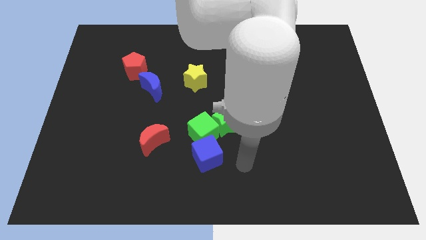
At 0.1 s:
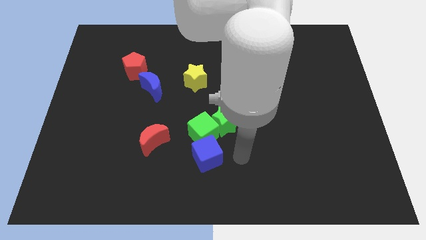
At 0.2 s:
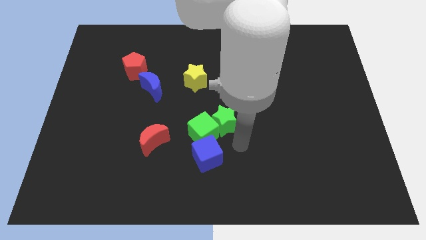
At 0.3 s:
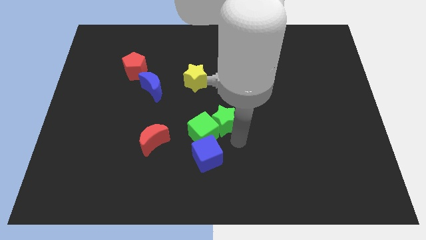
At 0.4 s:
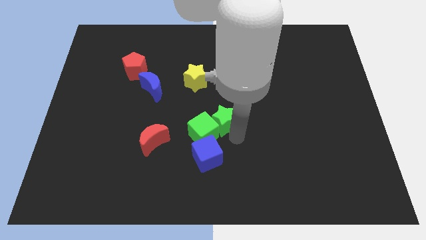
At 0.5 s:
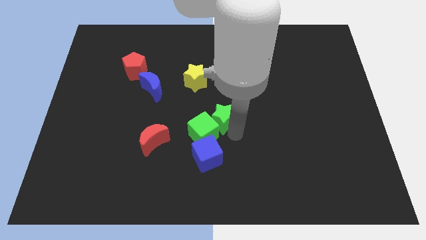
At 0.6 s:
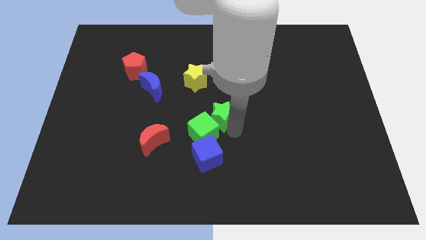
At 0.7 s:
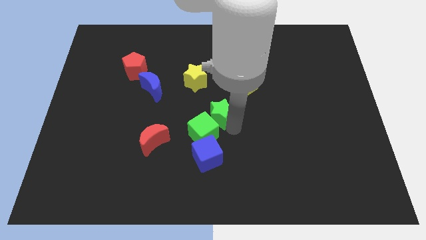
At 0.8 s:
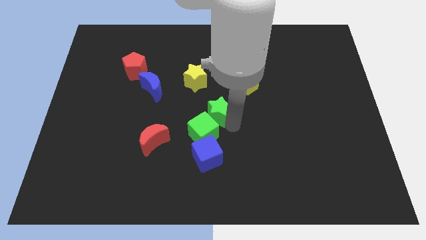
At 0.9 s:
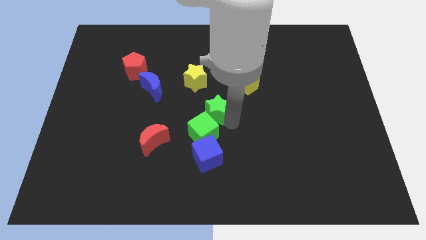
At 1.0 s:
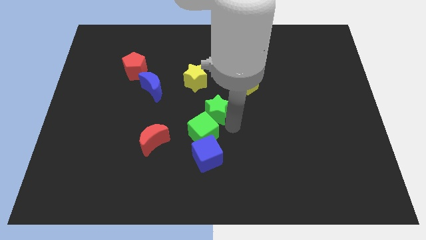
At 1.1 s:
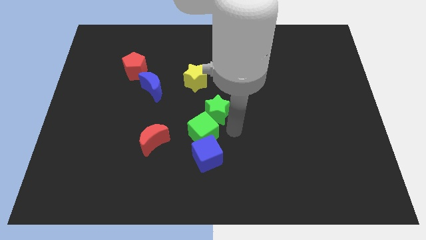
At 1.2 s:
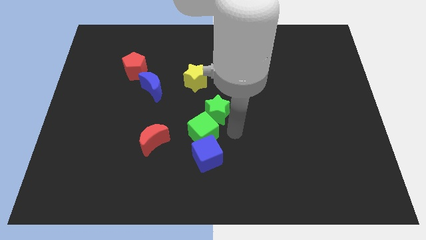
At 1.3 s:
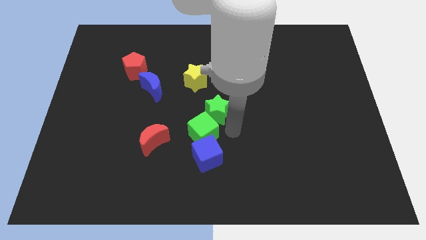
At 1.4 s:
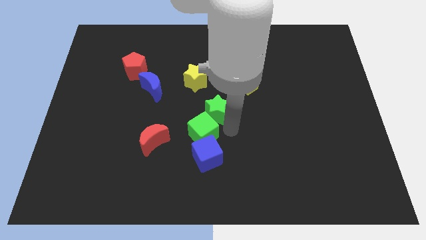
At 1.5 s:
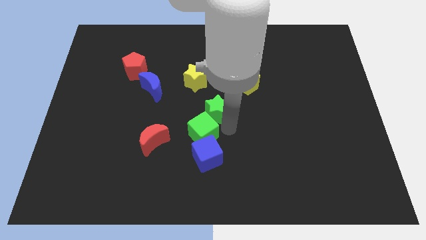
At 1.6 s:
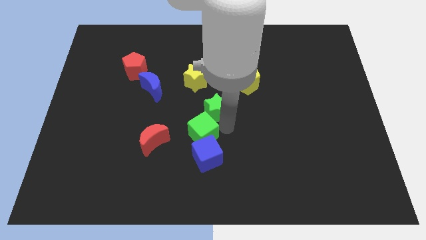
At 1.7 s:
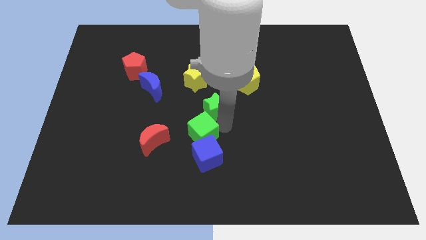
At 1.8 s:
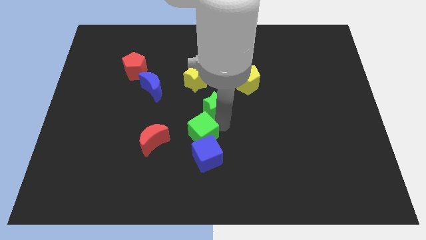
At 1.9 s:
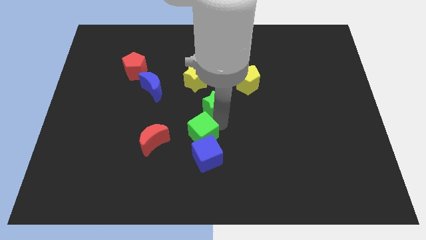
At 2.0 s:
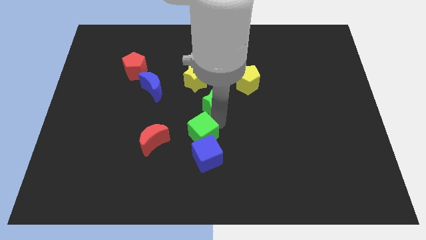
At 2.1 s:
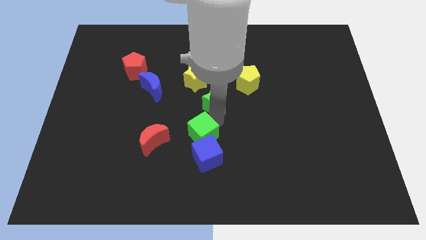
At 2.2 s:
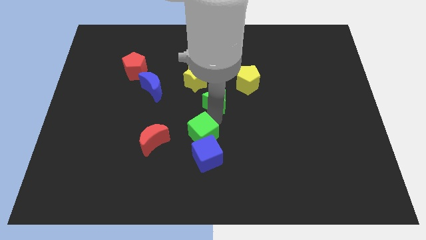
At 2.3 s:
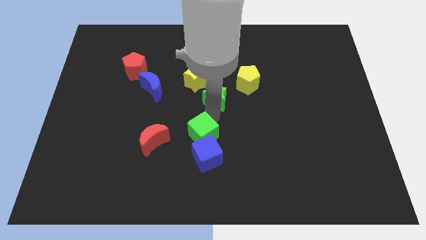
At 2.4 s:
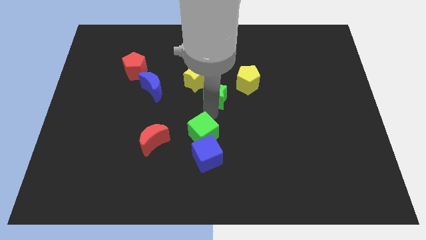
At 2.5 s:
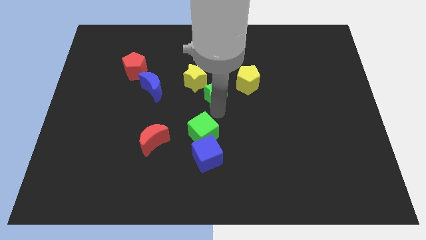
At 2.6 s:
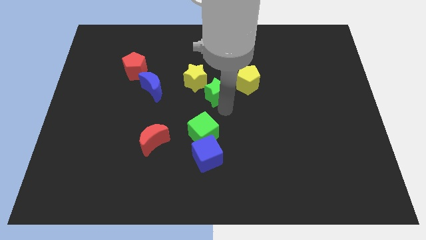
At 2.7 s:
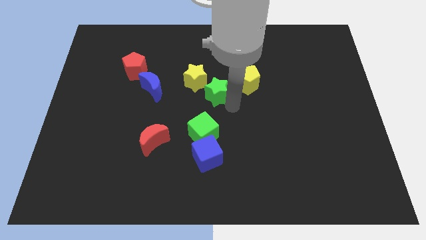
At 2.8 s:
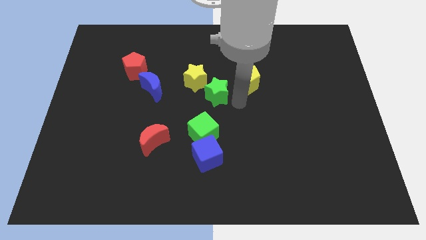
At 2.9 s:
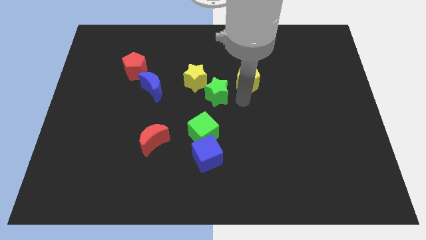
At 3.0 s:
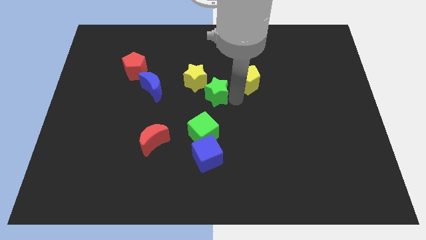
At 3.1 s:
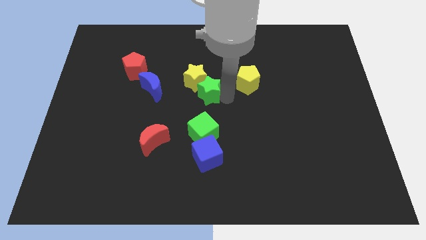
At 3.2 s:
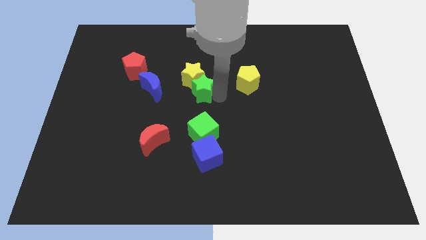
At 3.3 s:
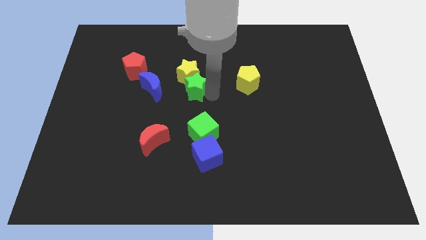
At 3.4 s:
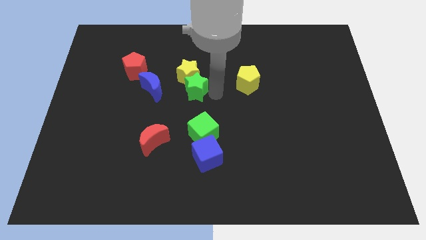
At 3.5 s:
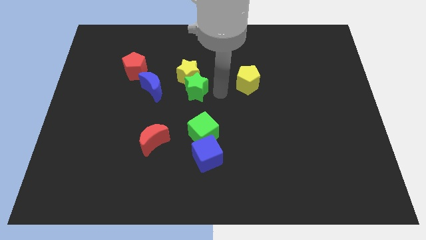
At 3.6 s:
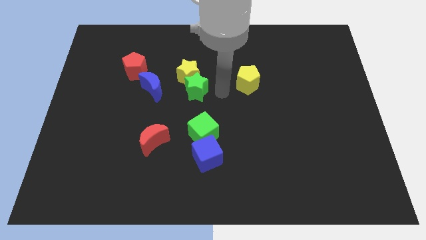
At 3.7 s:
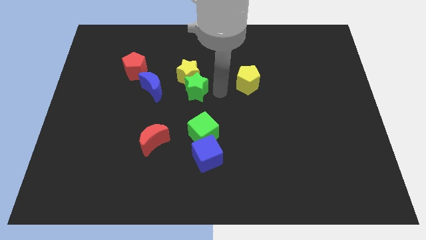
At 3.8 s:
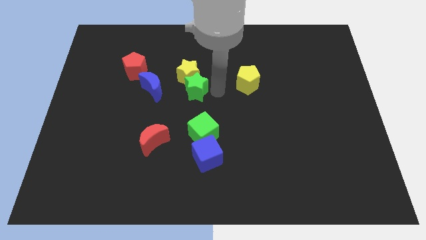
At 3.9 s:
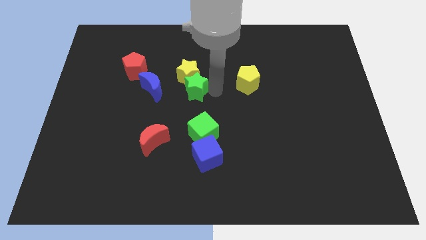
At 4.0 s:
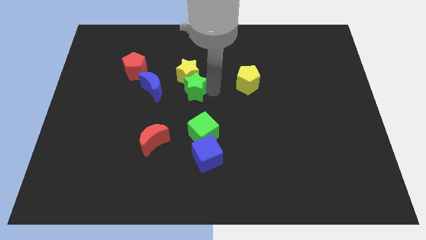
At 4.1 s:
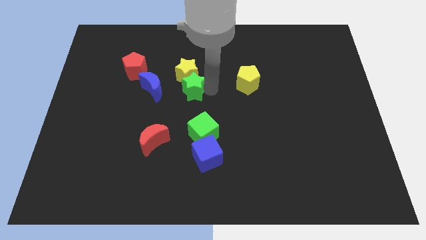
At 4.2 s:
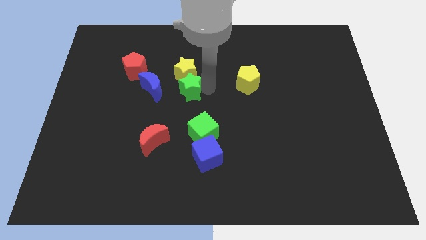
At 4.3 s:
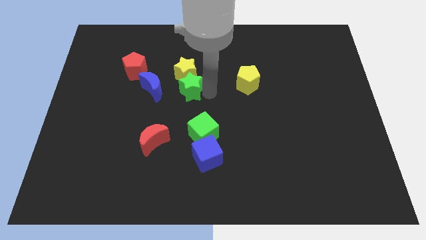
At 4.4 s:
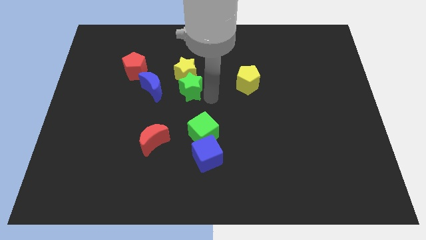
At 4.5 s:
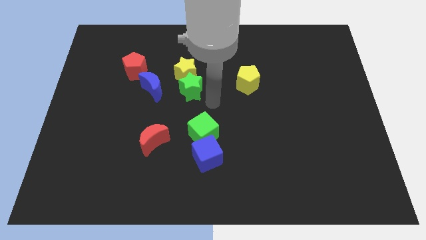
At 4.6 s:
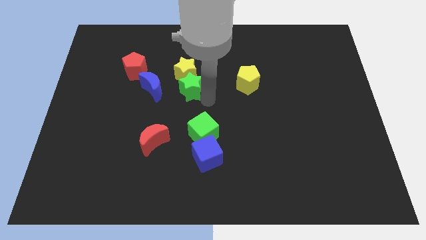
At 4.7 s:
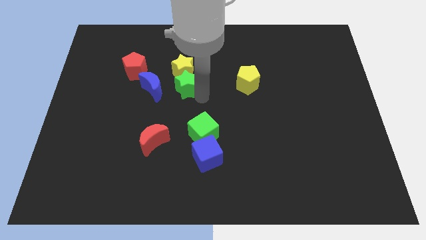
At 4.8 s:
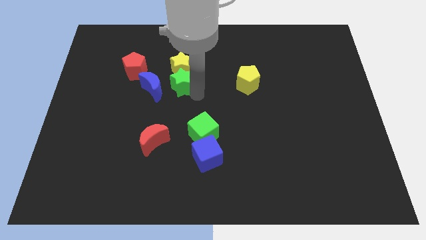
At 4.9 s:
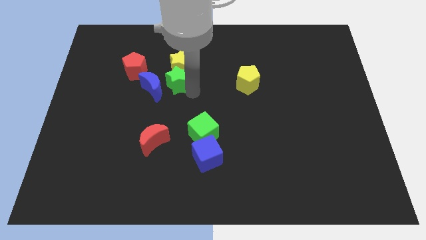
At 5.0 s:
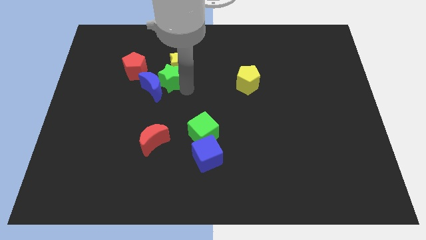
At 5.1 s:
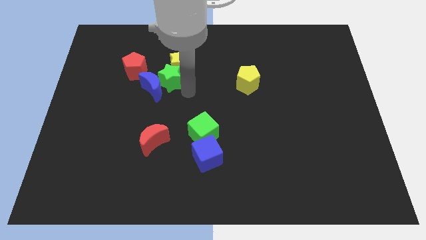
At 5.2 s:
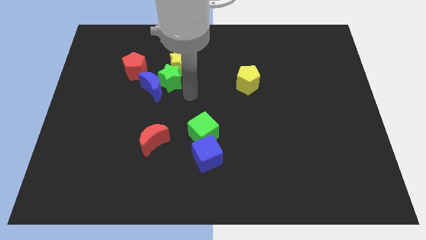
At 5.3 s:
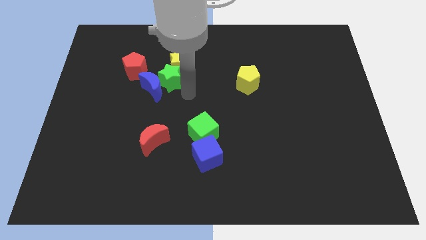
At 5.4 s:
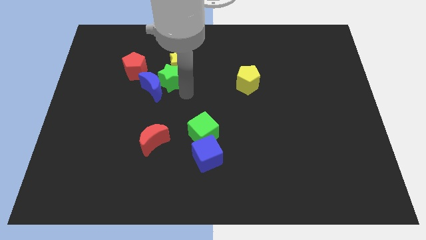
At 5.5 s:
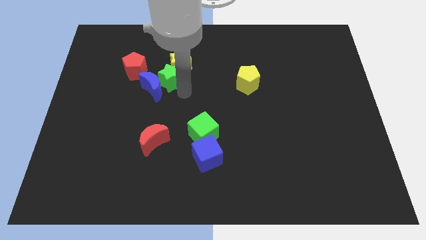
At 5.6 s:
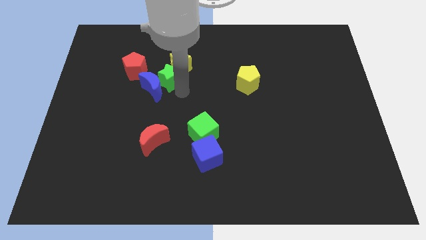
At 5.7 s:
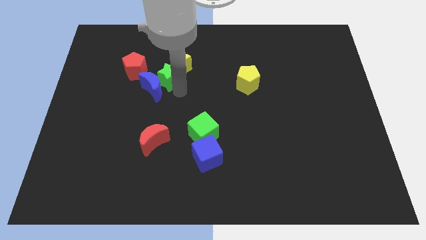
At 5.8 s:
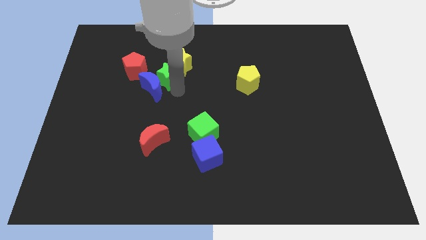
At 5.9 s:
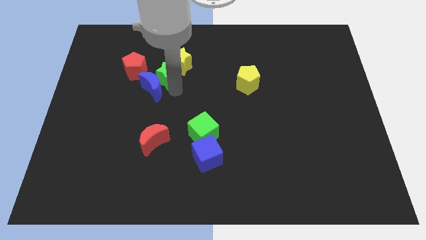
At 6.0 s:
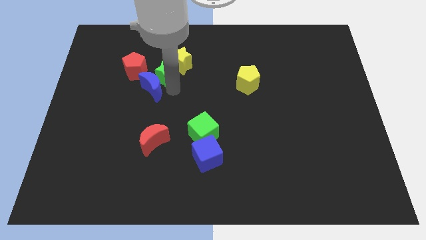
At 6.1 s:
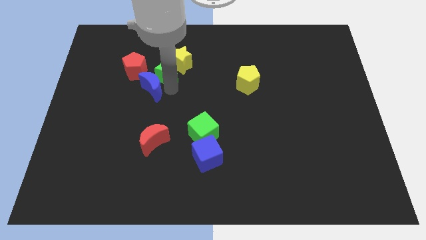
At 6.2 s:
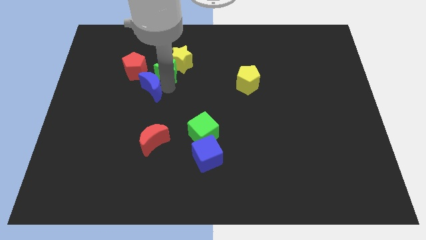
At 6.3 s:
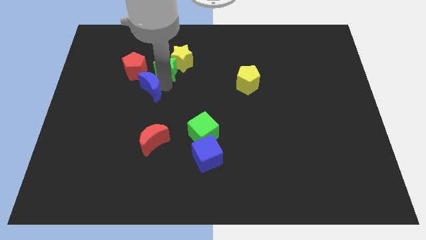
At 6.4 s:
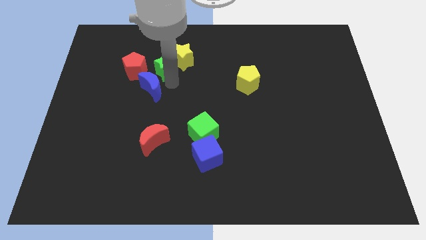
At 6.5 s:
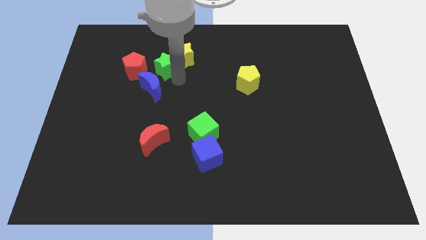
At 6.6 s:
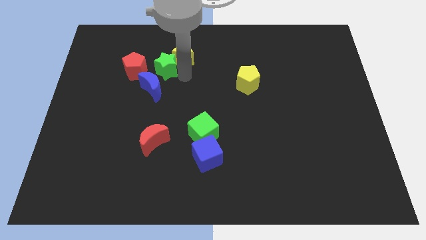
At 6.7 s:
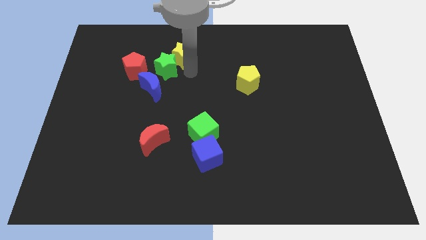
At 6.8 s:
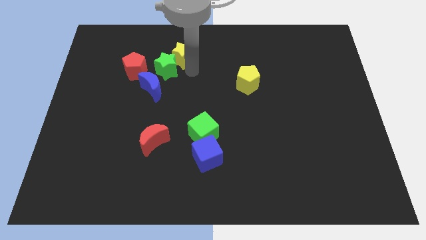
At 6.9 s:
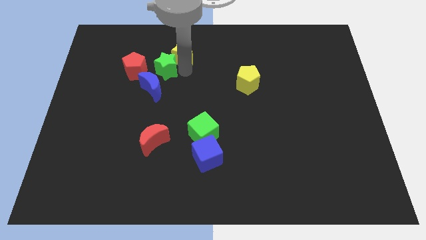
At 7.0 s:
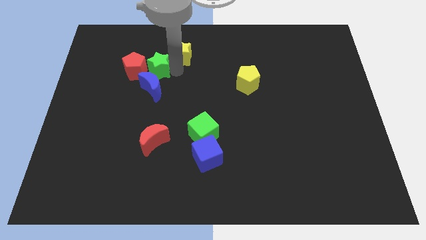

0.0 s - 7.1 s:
slide the green star to the red pentagon
